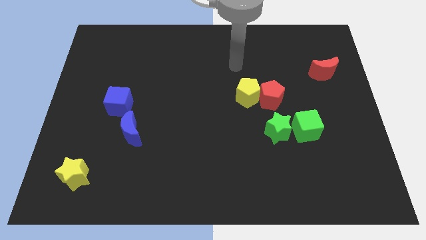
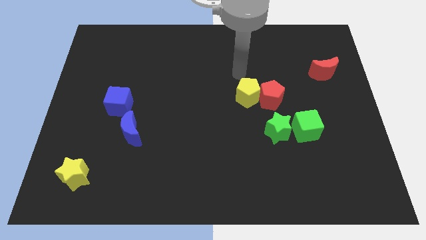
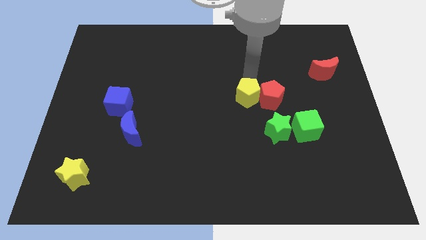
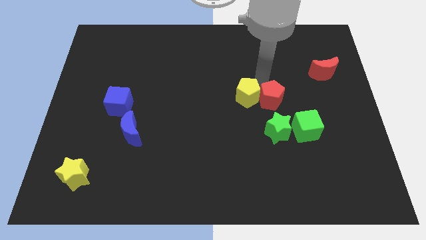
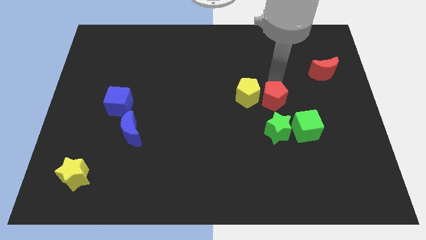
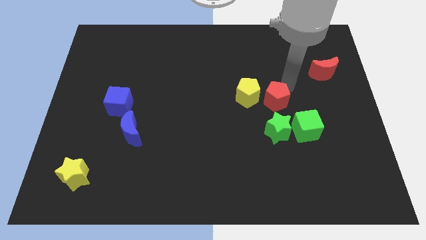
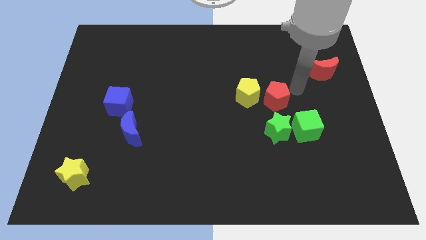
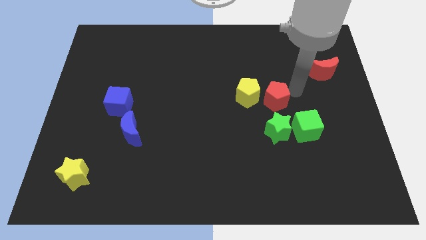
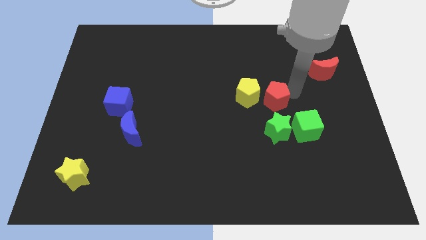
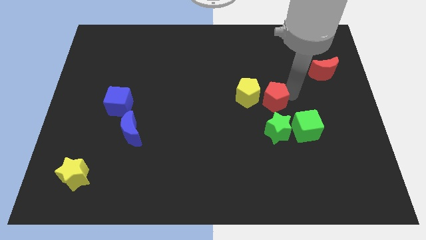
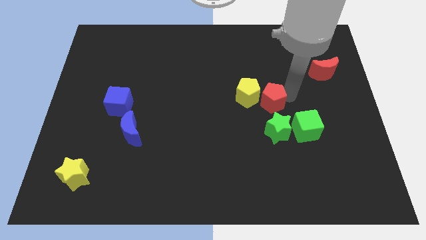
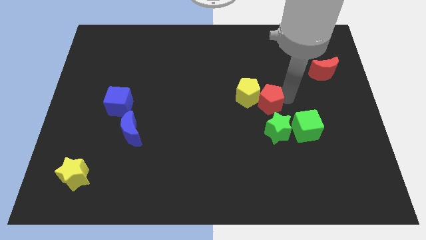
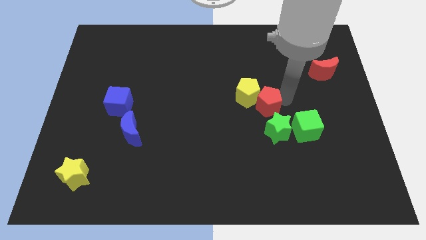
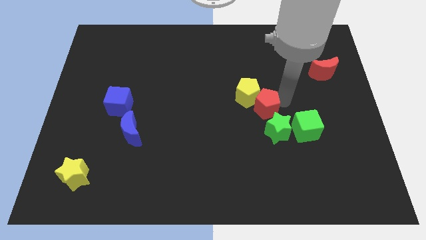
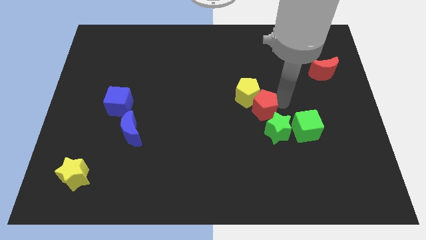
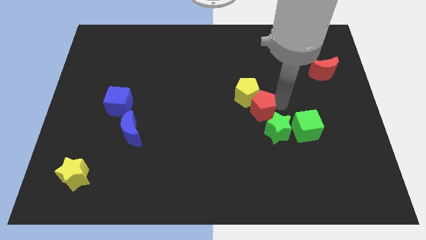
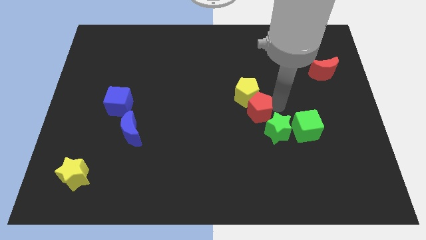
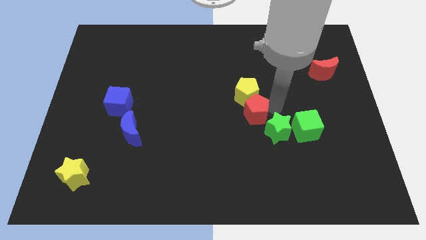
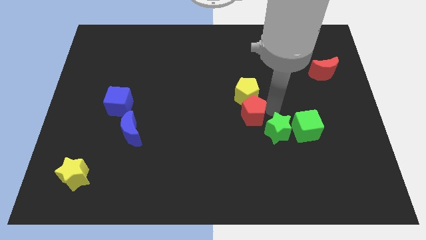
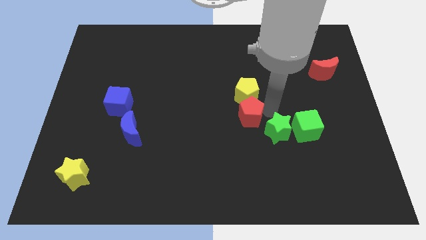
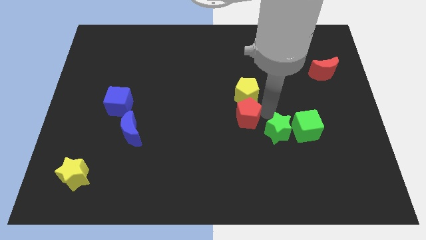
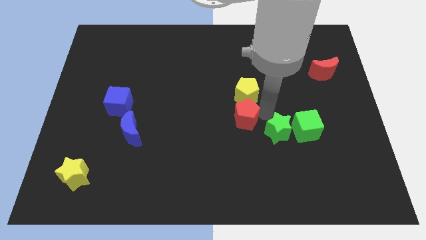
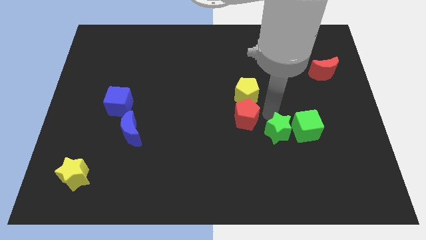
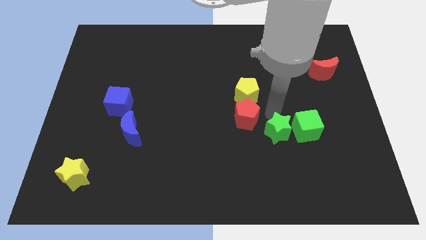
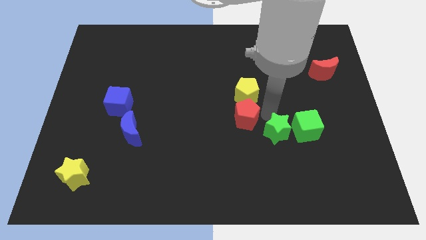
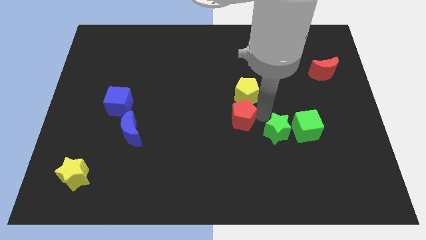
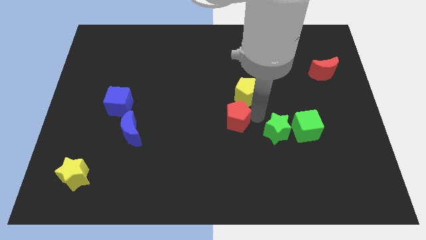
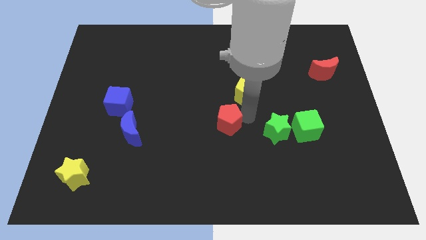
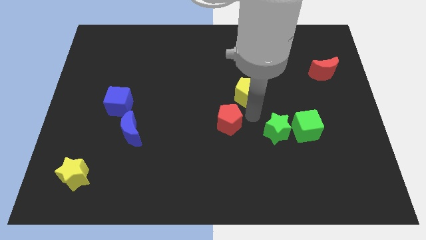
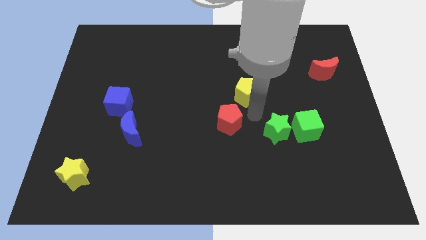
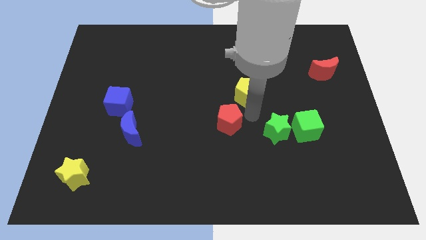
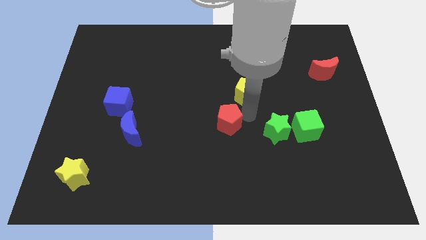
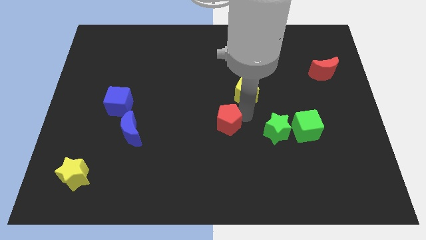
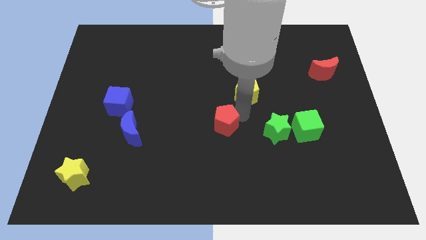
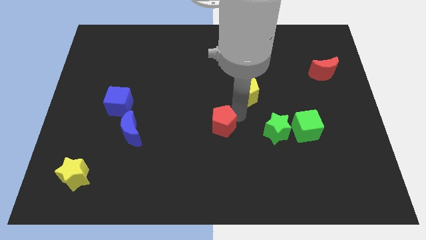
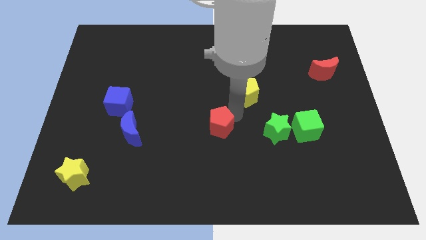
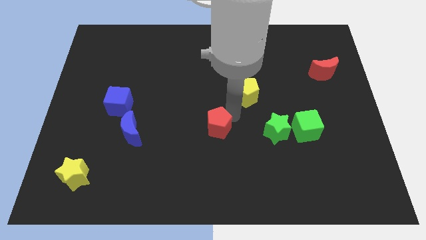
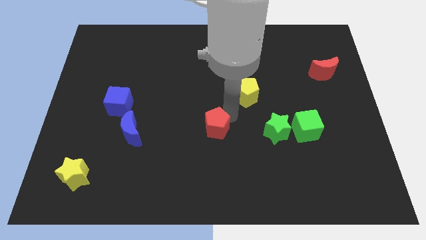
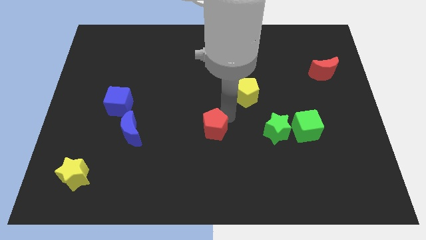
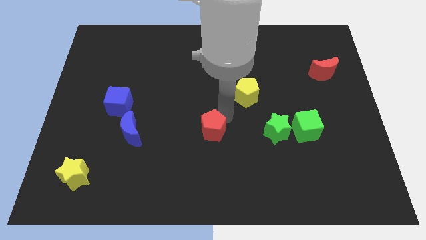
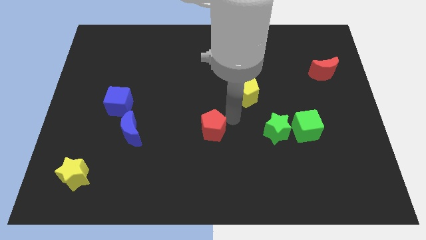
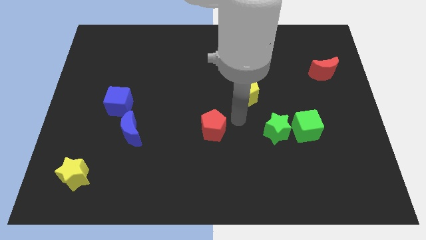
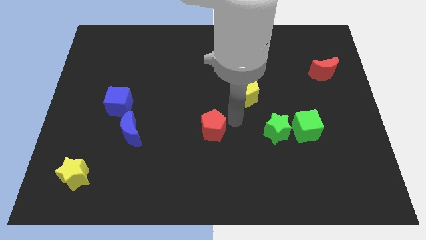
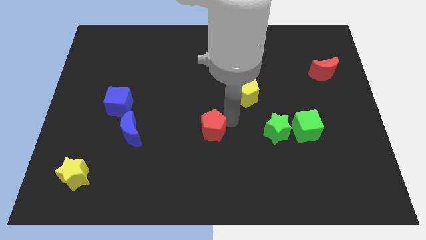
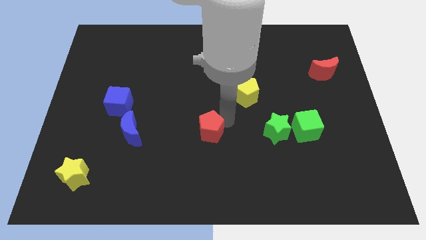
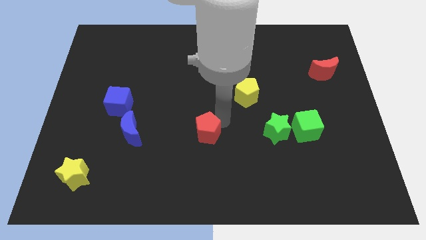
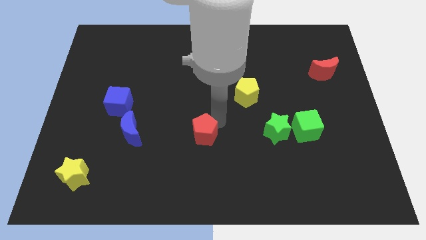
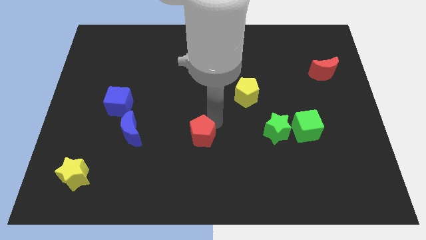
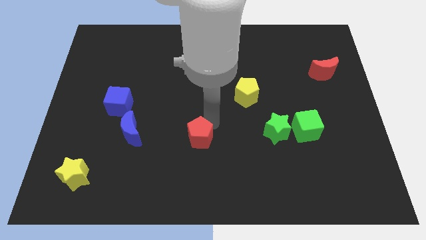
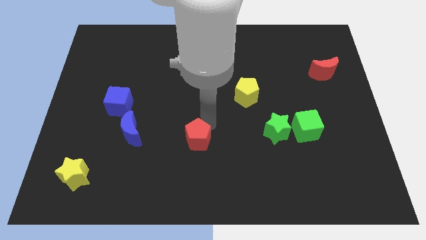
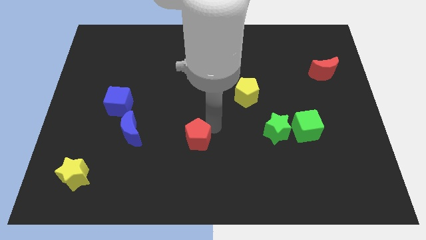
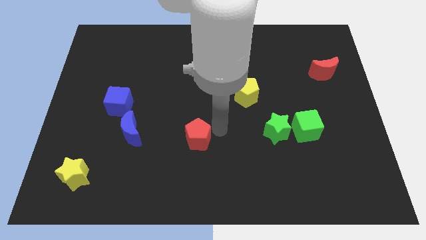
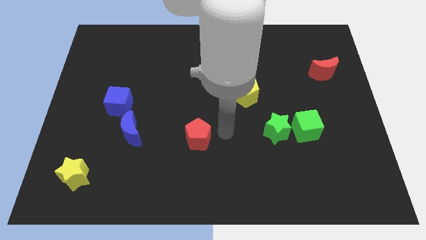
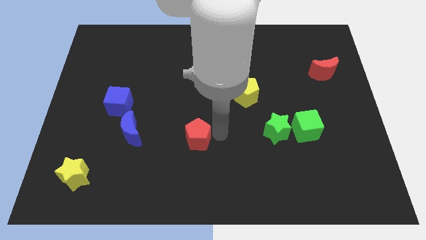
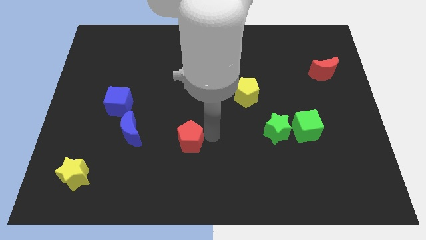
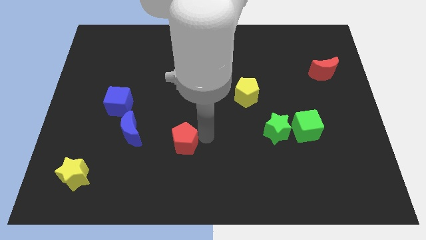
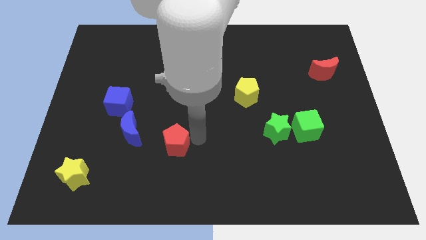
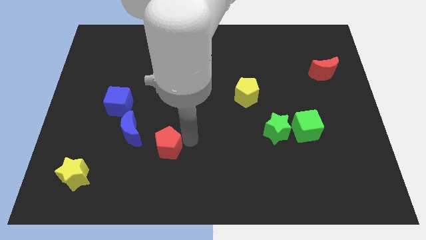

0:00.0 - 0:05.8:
push the red pentagon to the bottom right side of the blue moon

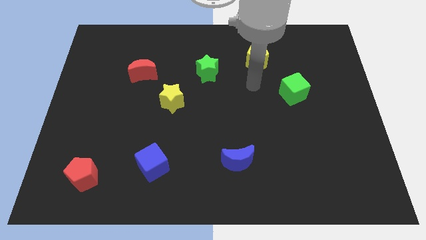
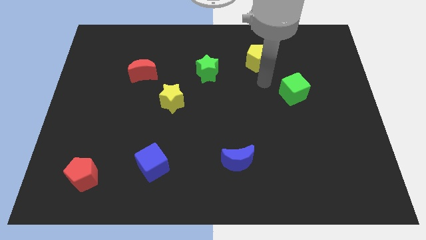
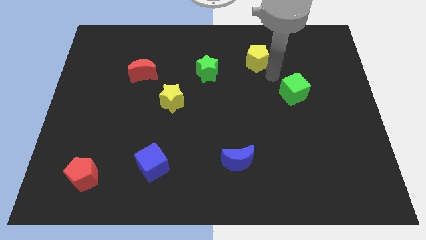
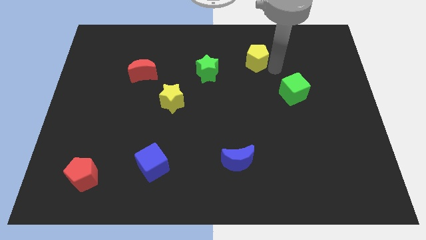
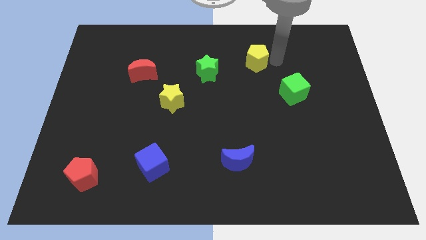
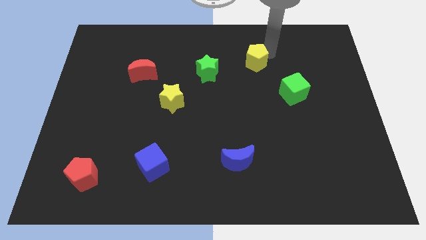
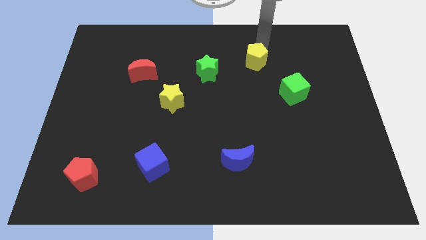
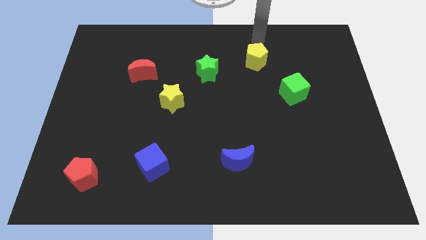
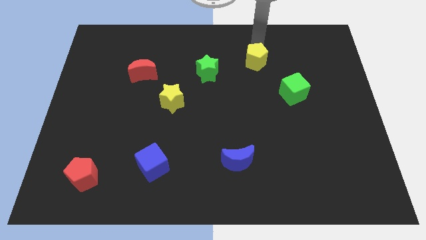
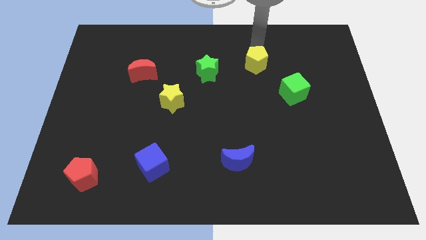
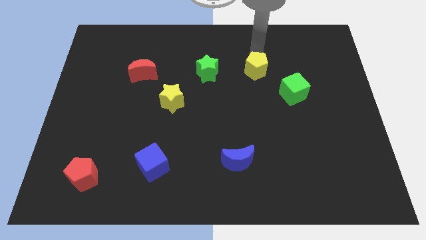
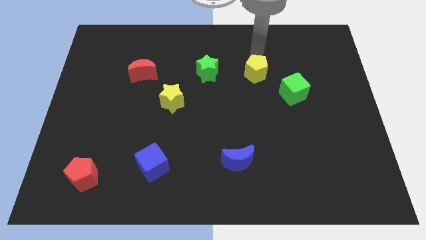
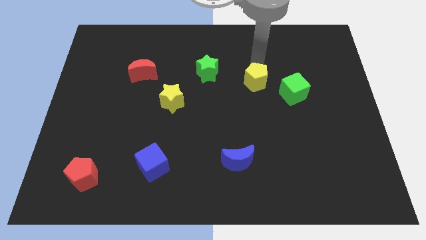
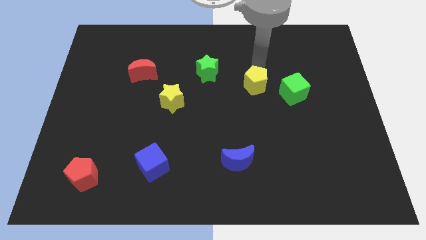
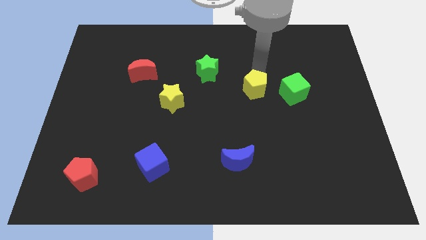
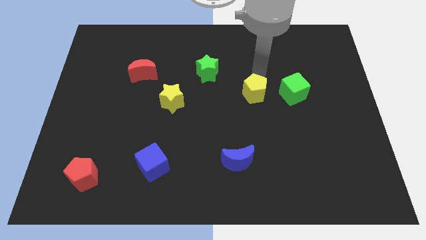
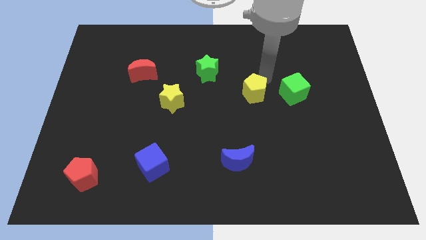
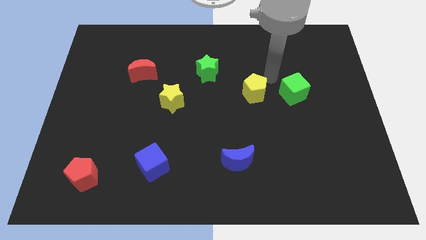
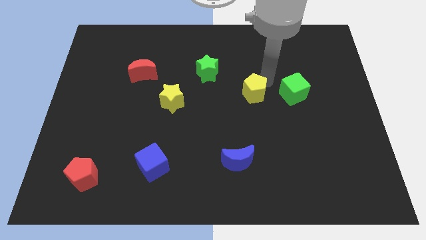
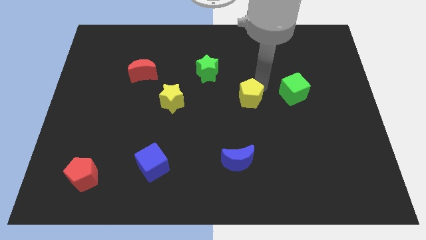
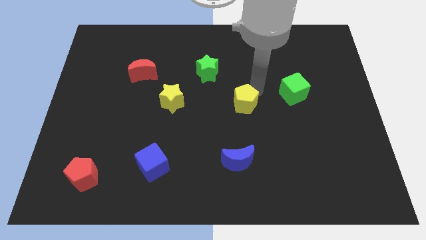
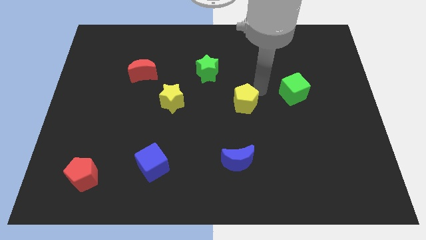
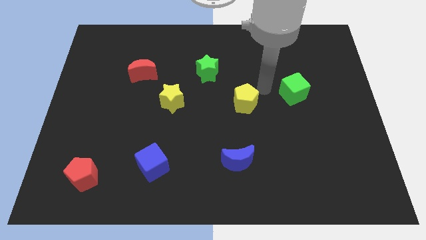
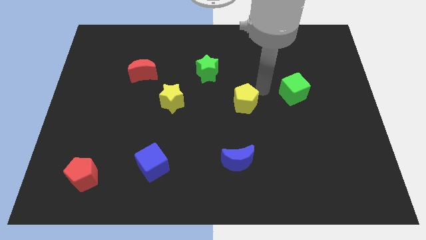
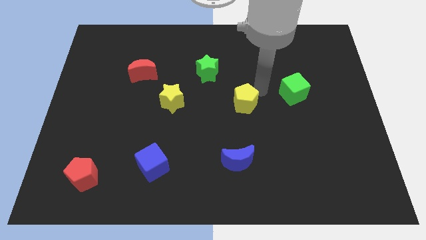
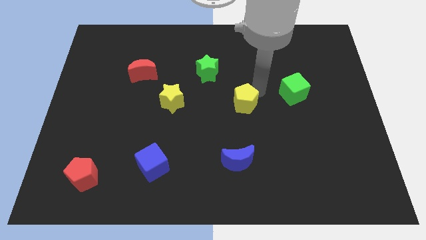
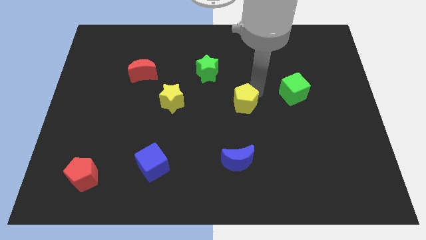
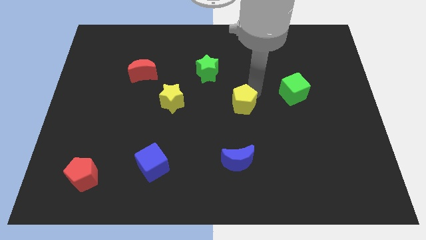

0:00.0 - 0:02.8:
move the yellow pentagon to the top side of the blue moon
